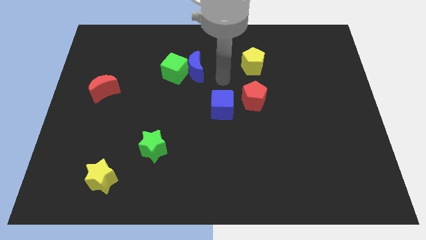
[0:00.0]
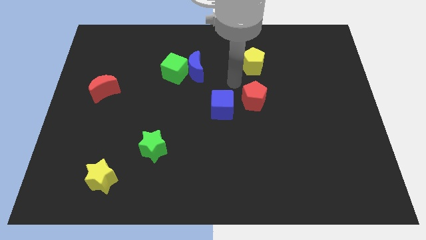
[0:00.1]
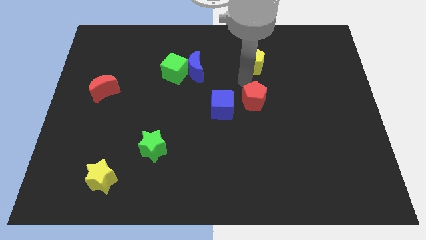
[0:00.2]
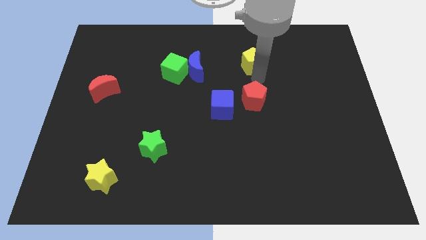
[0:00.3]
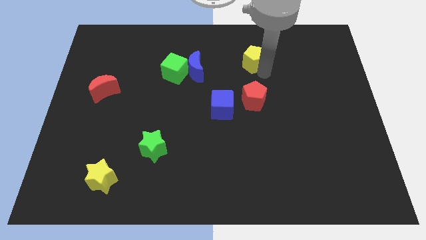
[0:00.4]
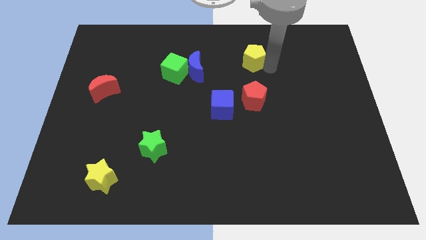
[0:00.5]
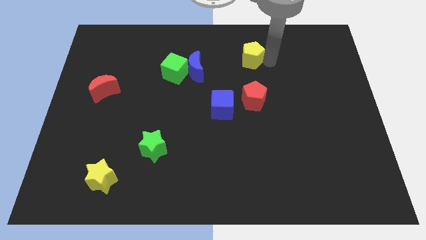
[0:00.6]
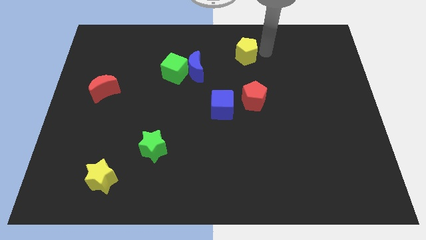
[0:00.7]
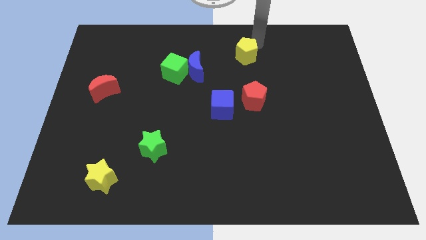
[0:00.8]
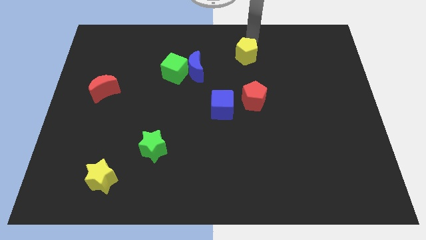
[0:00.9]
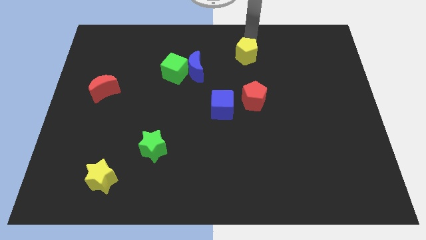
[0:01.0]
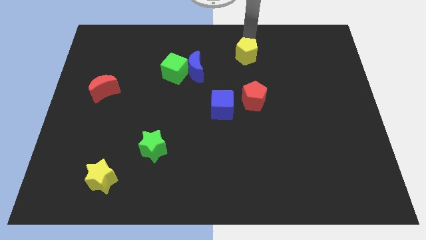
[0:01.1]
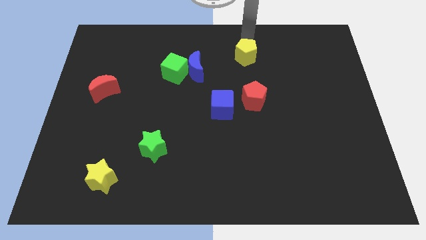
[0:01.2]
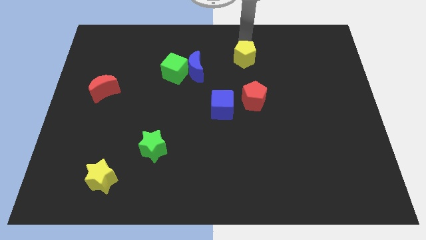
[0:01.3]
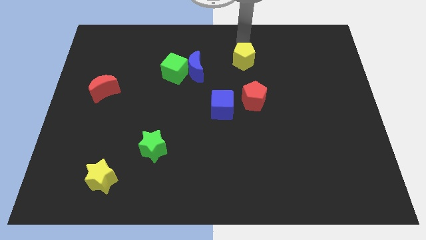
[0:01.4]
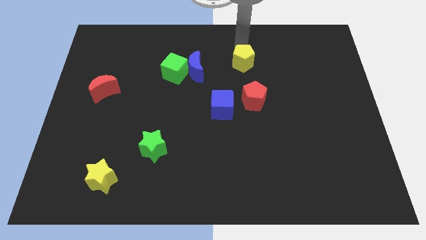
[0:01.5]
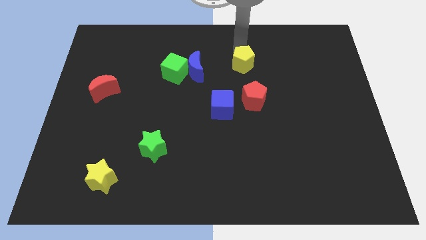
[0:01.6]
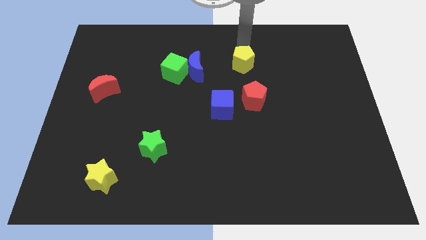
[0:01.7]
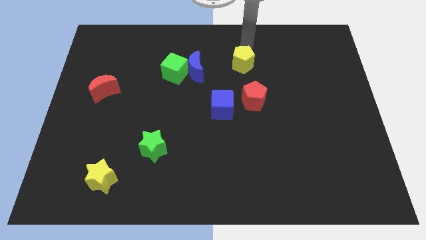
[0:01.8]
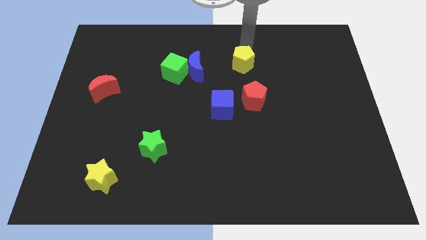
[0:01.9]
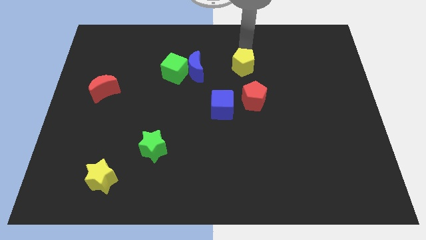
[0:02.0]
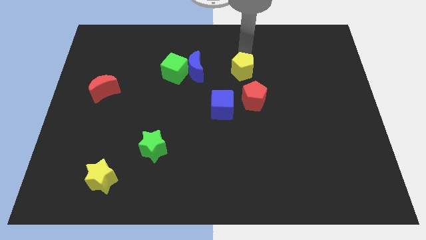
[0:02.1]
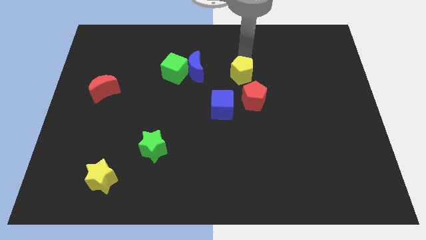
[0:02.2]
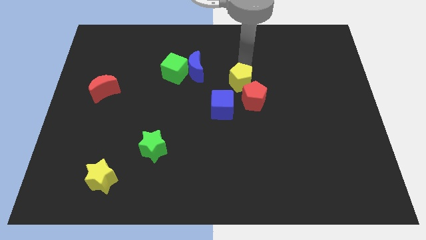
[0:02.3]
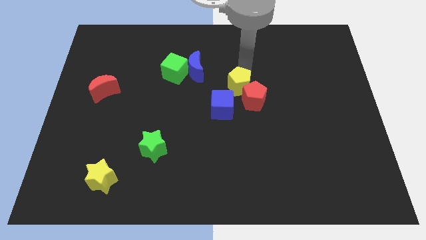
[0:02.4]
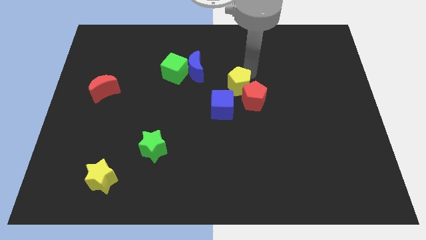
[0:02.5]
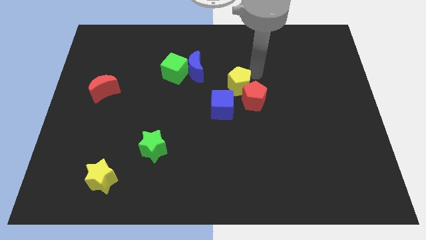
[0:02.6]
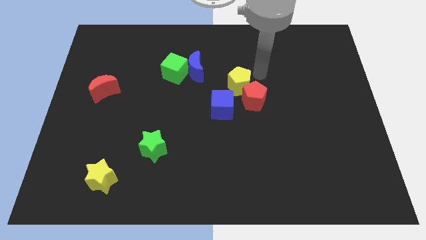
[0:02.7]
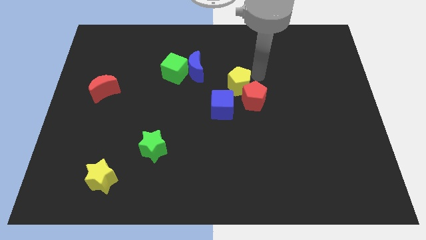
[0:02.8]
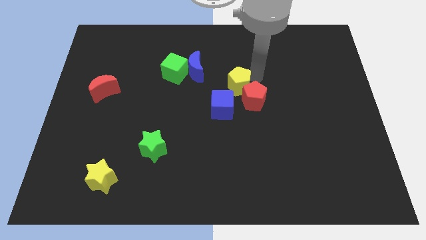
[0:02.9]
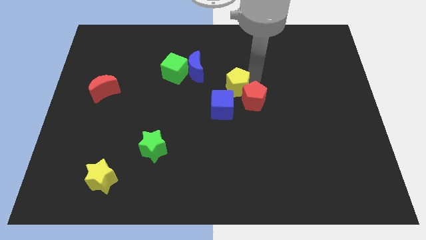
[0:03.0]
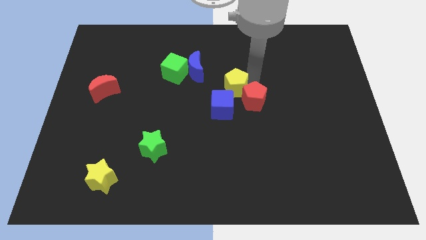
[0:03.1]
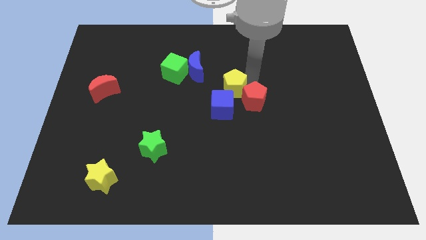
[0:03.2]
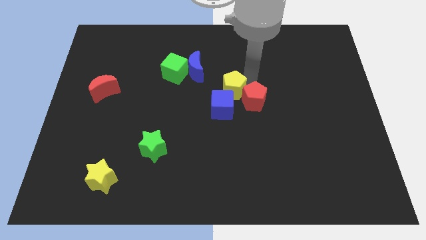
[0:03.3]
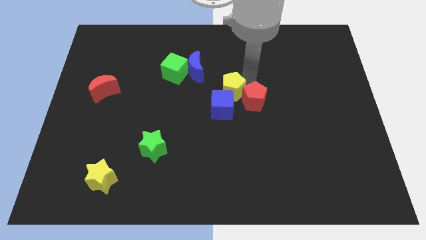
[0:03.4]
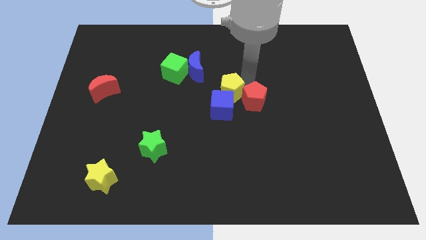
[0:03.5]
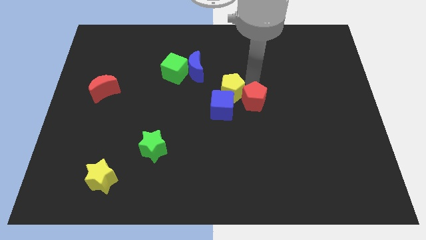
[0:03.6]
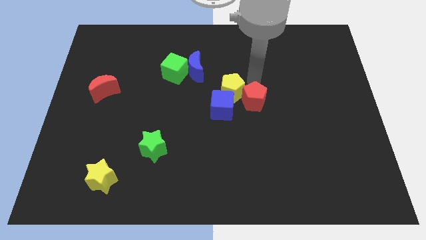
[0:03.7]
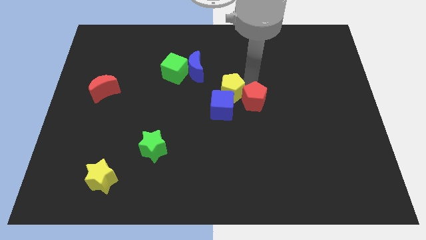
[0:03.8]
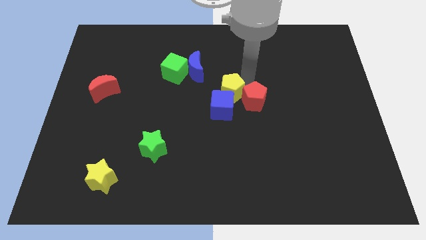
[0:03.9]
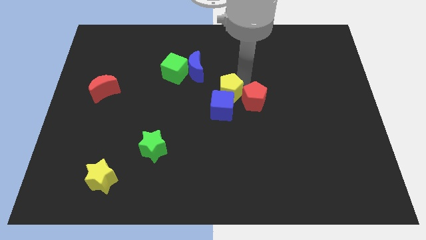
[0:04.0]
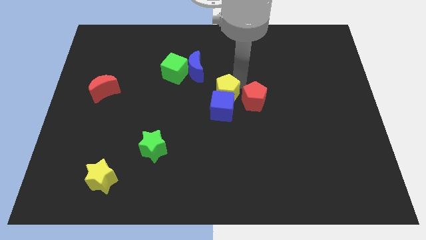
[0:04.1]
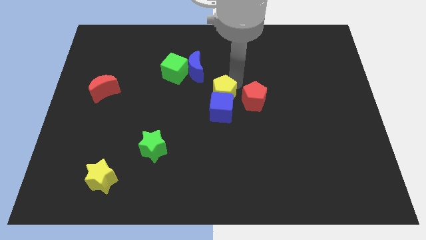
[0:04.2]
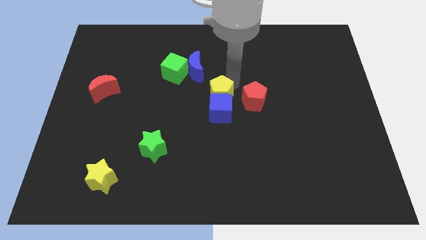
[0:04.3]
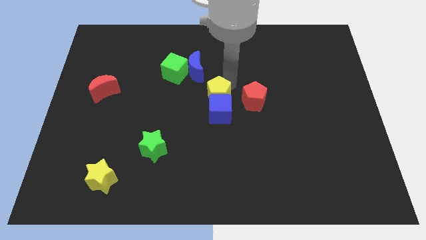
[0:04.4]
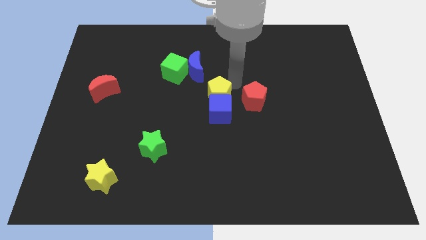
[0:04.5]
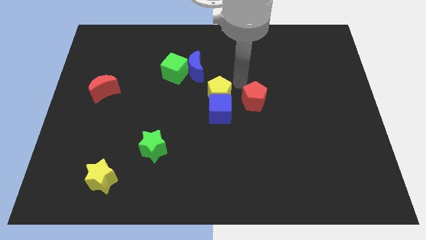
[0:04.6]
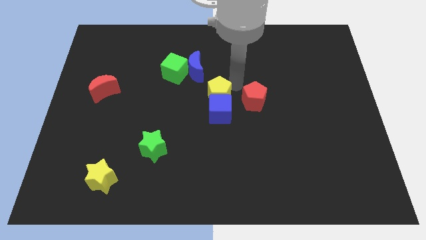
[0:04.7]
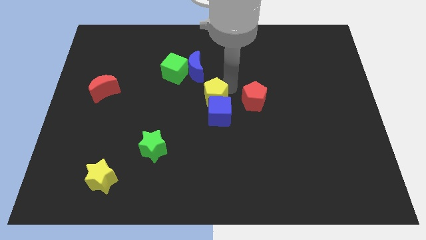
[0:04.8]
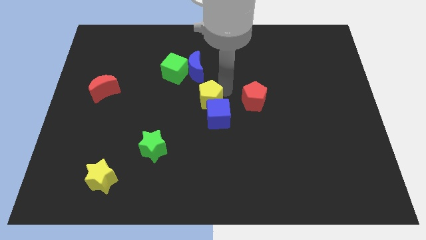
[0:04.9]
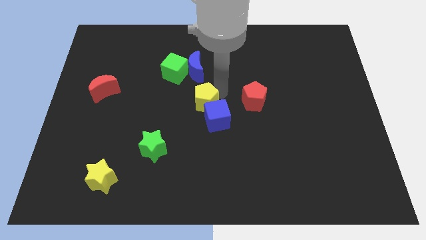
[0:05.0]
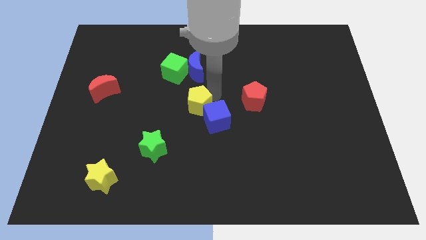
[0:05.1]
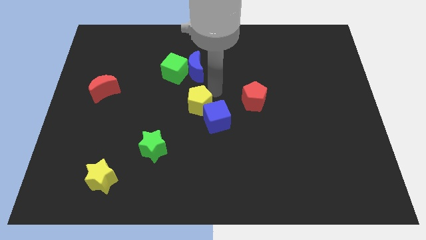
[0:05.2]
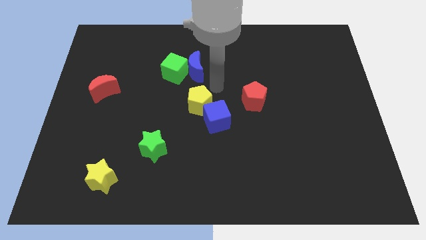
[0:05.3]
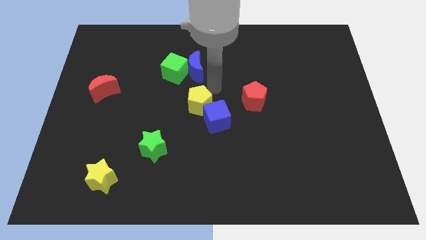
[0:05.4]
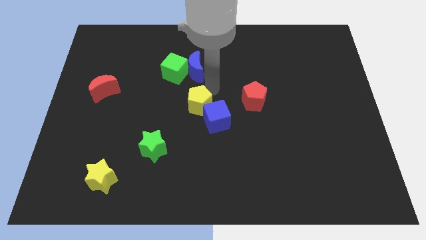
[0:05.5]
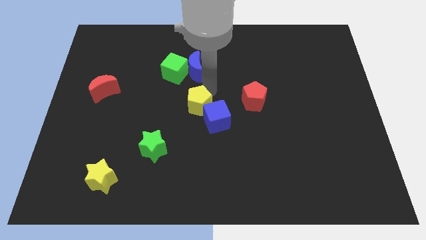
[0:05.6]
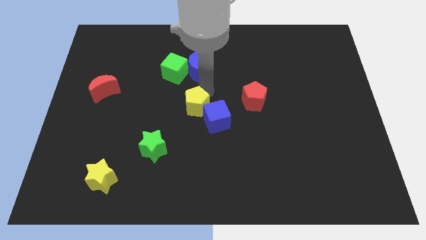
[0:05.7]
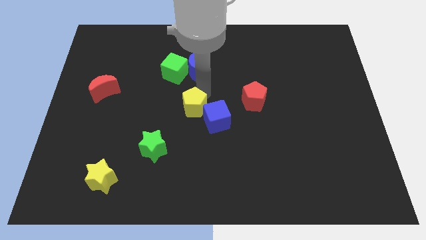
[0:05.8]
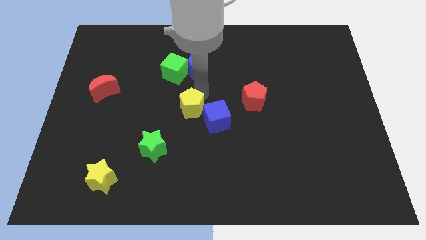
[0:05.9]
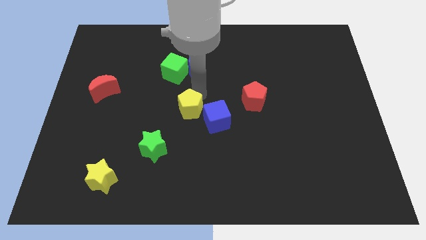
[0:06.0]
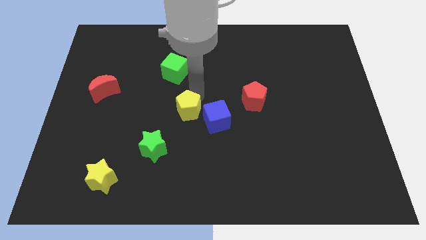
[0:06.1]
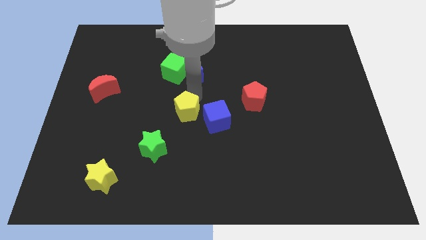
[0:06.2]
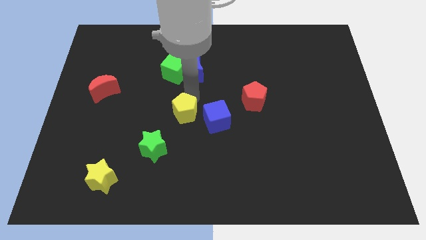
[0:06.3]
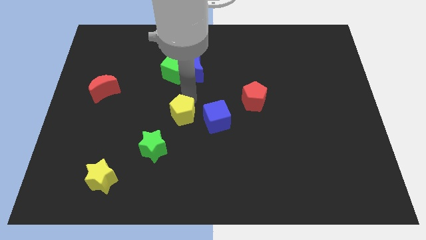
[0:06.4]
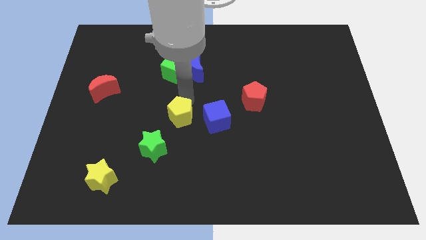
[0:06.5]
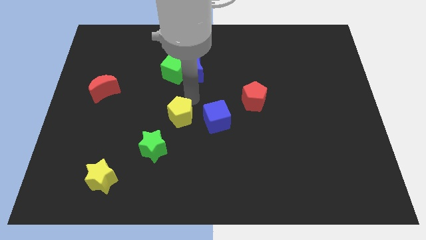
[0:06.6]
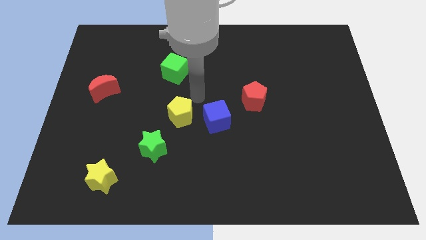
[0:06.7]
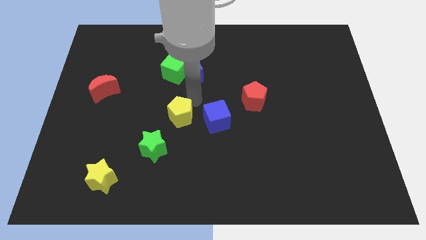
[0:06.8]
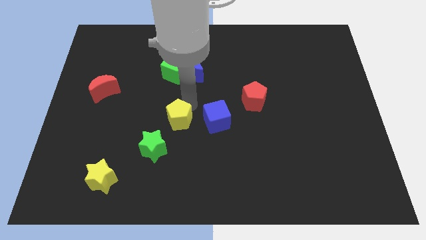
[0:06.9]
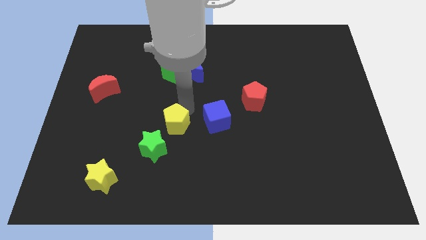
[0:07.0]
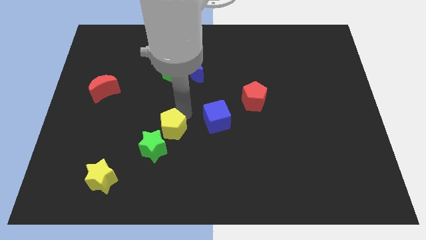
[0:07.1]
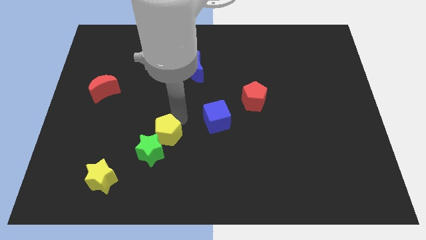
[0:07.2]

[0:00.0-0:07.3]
move the yellow pentagon close to the green star

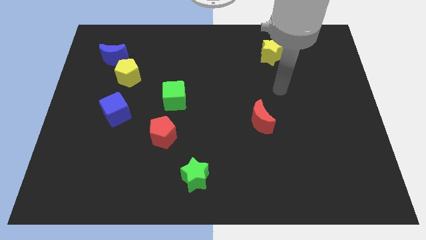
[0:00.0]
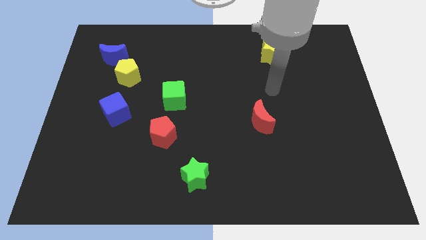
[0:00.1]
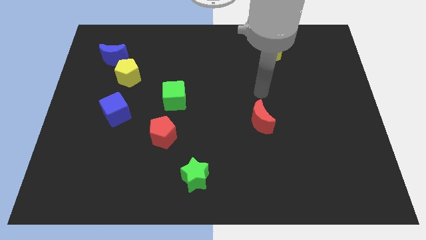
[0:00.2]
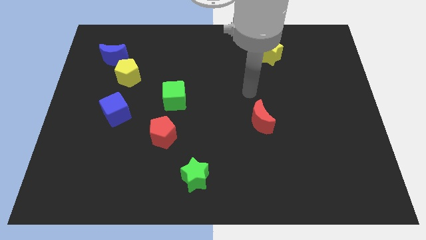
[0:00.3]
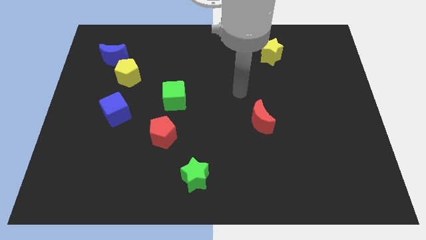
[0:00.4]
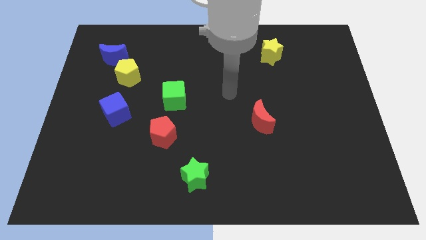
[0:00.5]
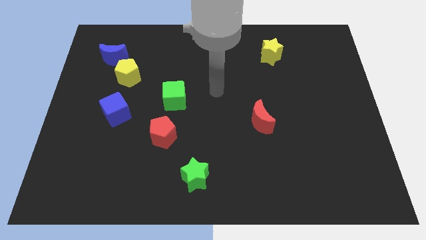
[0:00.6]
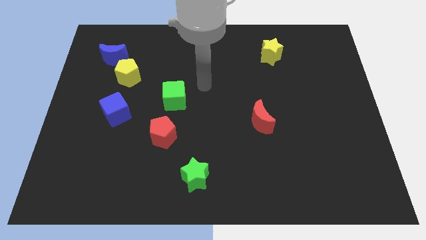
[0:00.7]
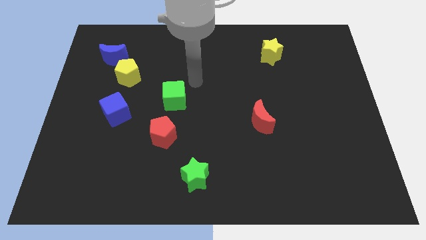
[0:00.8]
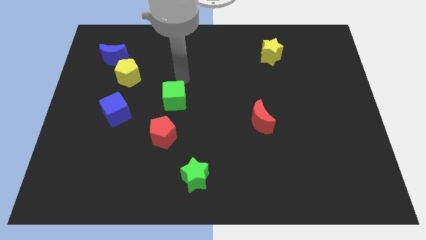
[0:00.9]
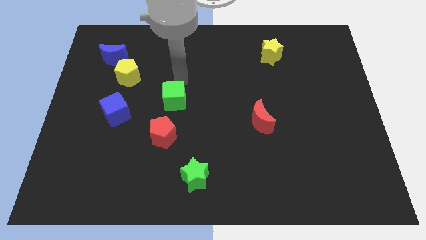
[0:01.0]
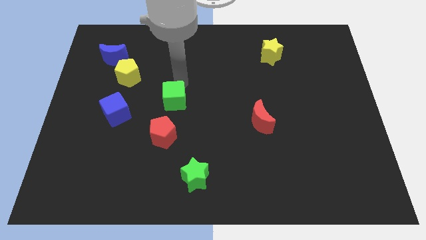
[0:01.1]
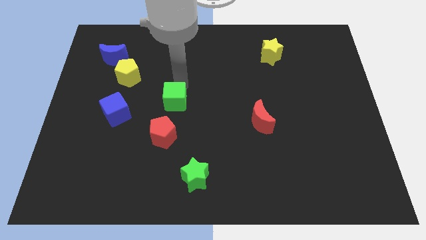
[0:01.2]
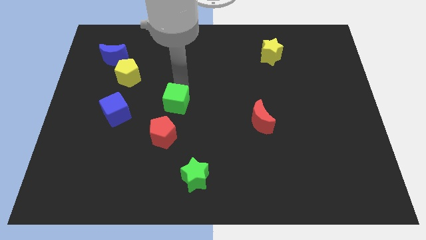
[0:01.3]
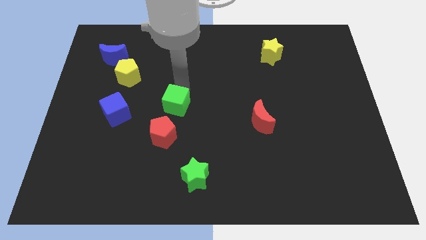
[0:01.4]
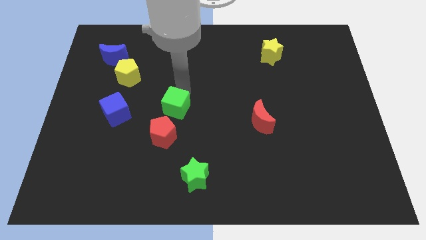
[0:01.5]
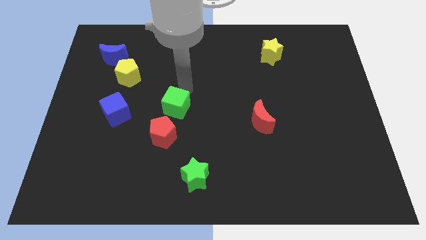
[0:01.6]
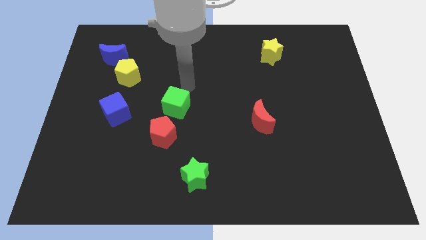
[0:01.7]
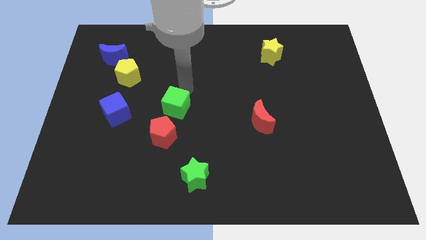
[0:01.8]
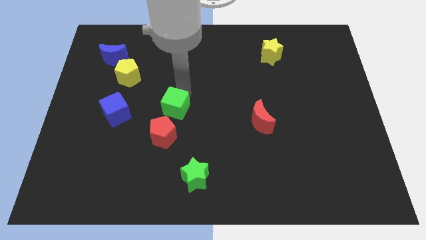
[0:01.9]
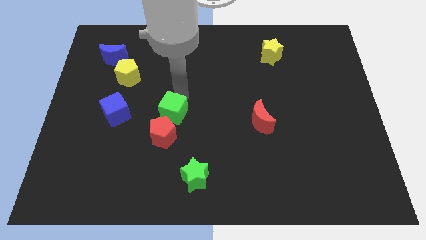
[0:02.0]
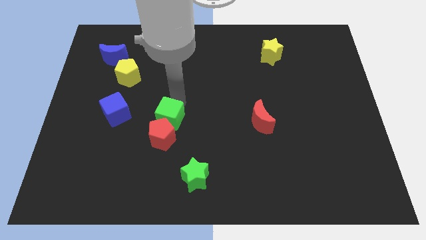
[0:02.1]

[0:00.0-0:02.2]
move the green cube close to the red pentagon
